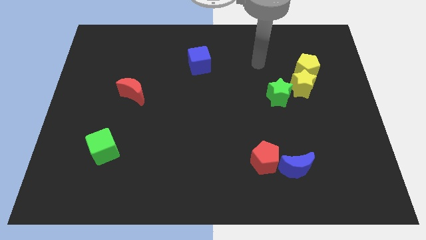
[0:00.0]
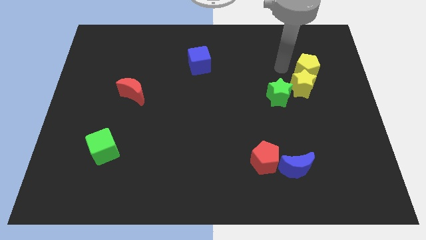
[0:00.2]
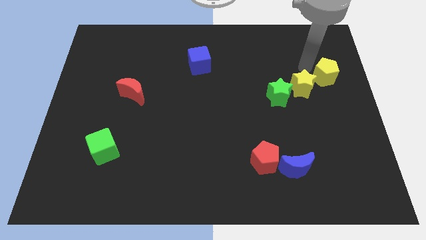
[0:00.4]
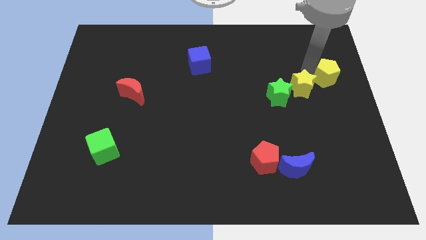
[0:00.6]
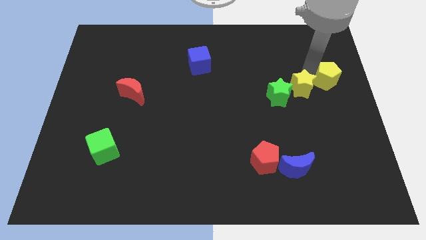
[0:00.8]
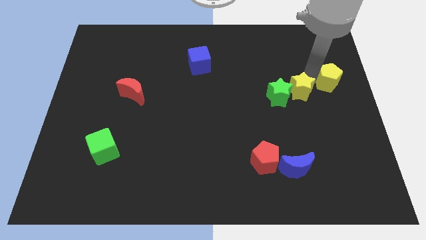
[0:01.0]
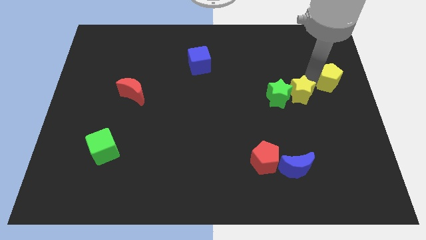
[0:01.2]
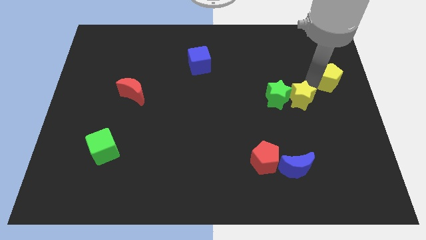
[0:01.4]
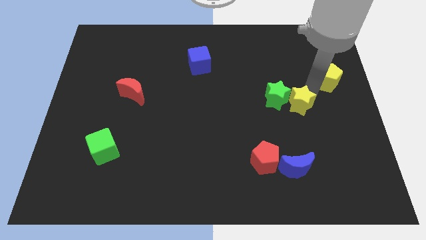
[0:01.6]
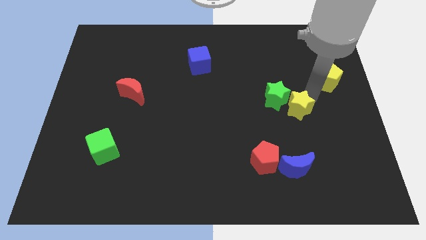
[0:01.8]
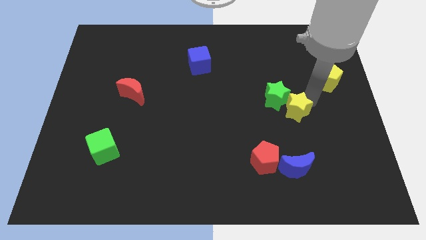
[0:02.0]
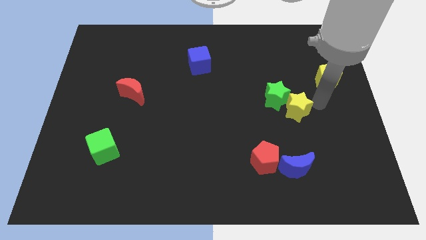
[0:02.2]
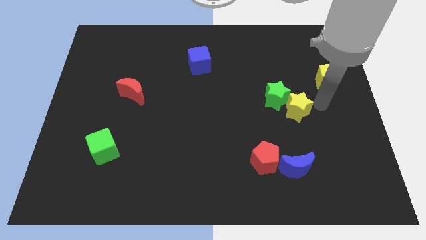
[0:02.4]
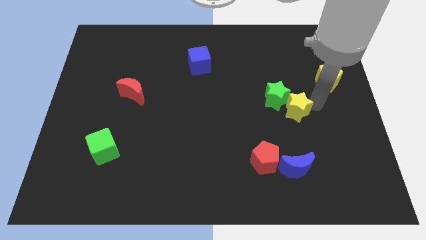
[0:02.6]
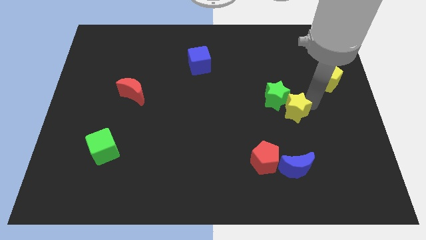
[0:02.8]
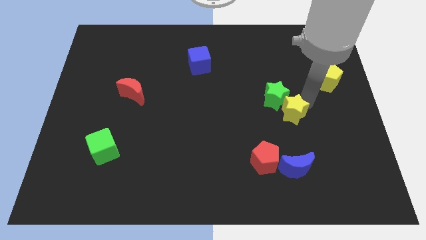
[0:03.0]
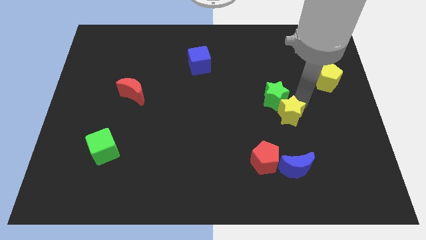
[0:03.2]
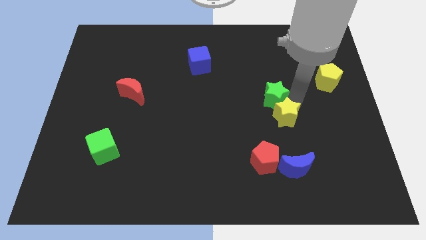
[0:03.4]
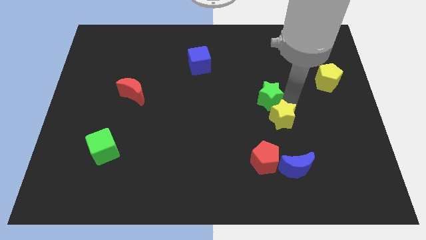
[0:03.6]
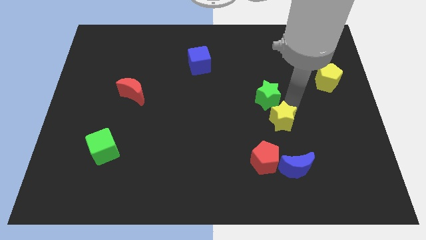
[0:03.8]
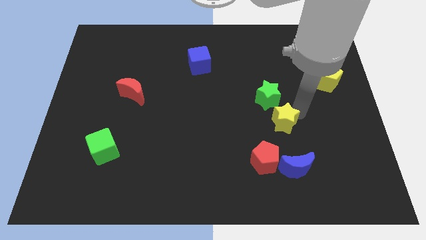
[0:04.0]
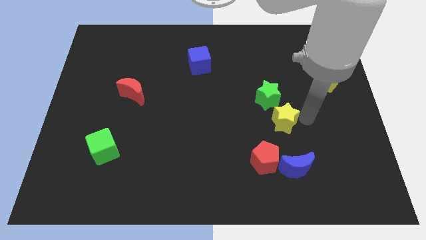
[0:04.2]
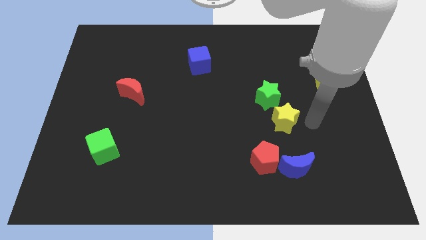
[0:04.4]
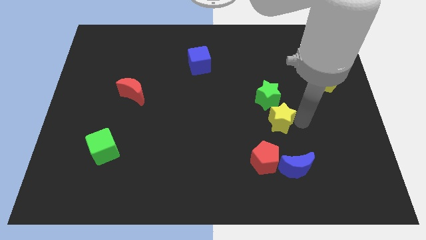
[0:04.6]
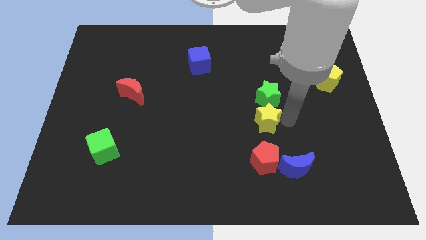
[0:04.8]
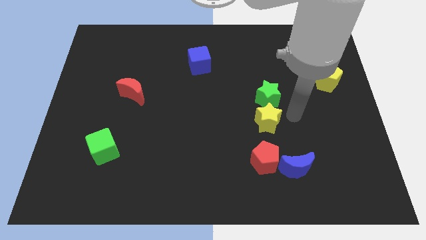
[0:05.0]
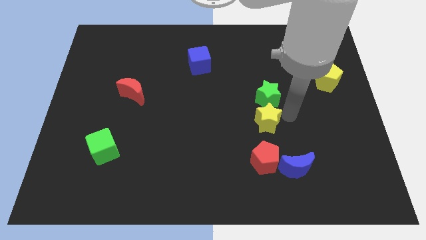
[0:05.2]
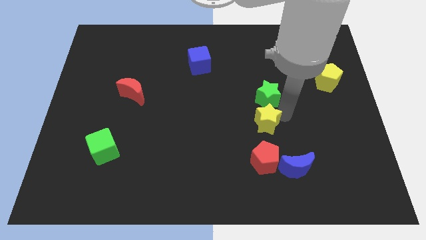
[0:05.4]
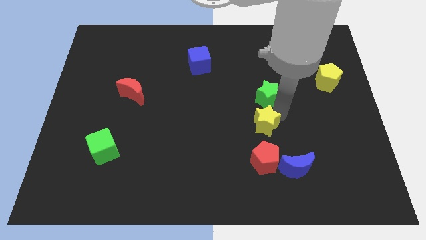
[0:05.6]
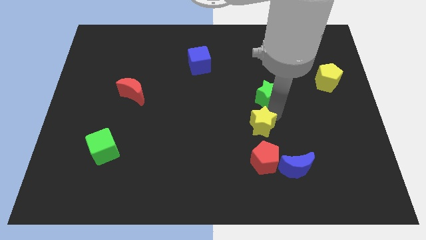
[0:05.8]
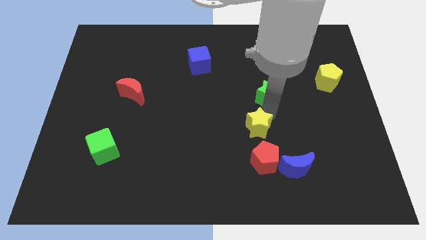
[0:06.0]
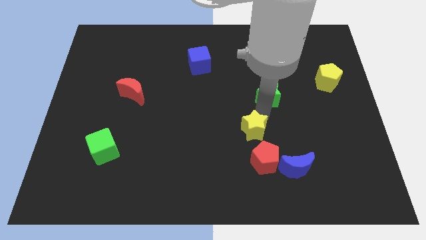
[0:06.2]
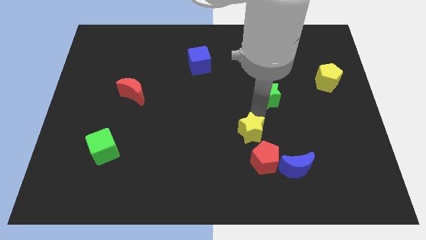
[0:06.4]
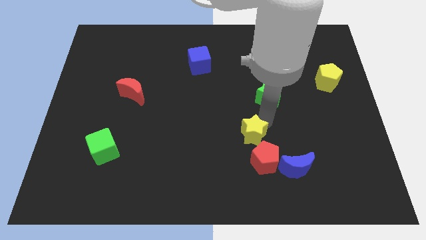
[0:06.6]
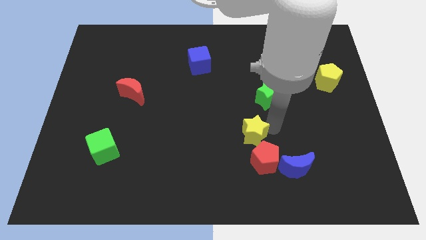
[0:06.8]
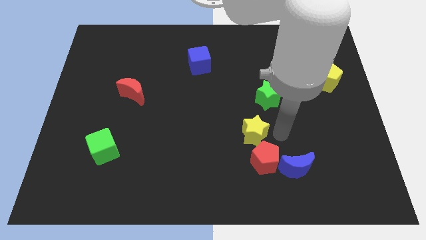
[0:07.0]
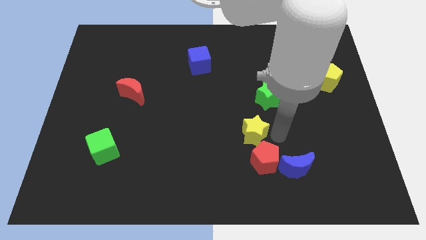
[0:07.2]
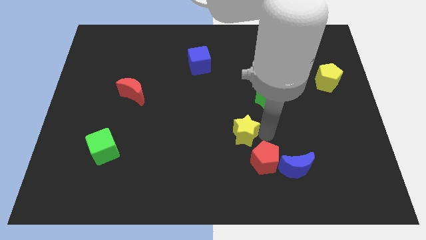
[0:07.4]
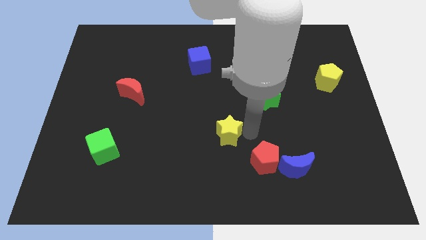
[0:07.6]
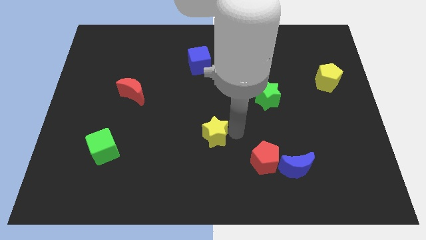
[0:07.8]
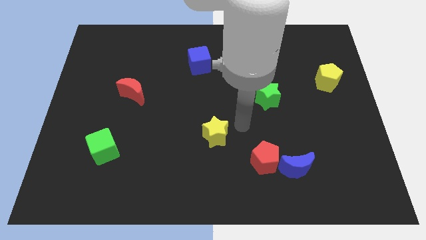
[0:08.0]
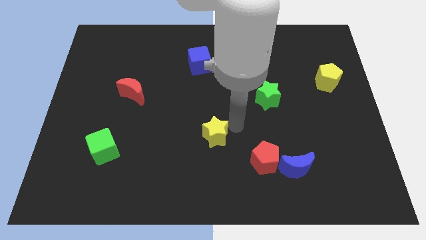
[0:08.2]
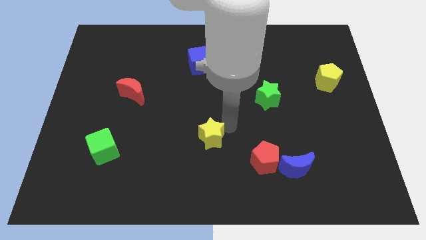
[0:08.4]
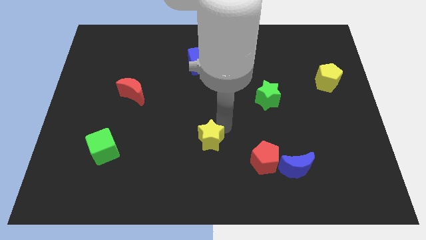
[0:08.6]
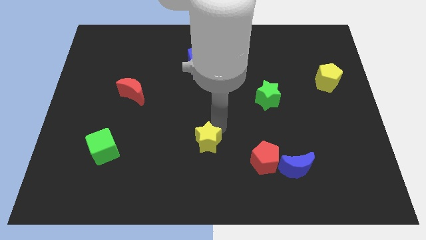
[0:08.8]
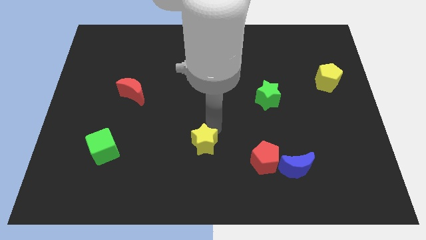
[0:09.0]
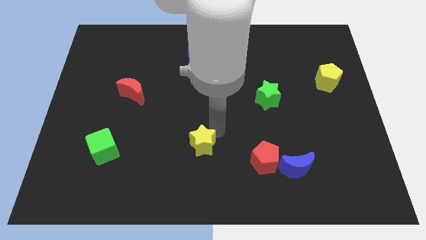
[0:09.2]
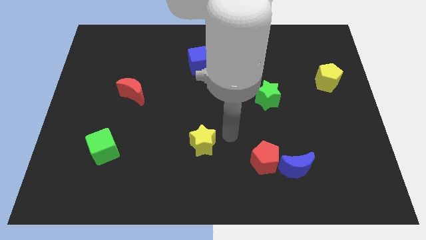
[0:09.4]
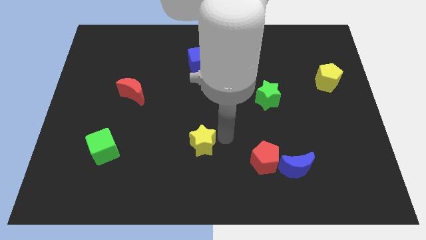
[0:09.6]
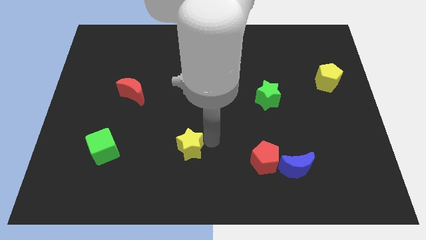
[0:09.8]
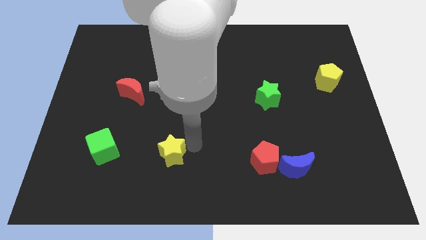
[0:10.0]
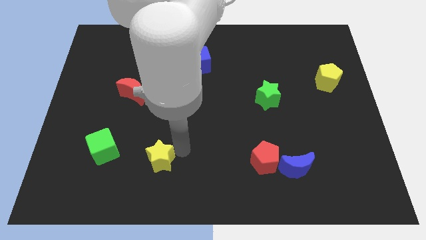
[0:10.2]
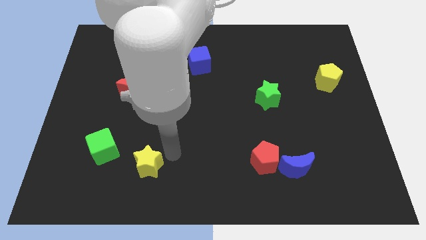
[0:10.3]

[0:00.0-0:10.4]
push the yellow star to the bottom right of the green cube

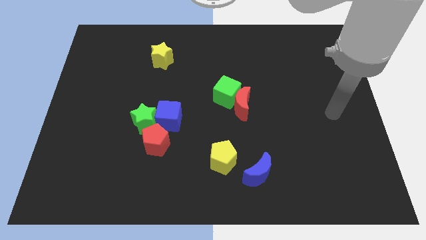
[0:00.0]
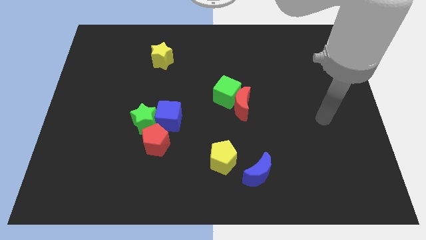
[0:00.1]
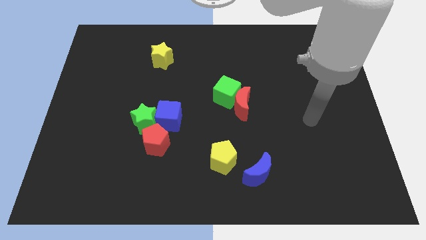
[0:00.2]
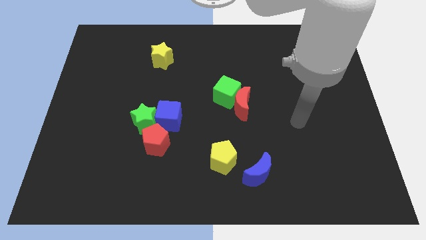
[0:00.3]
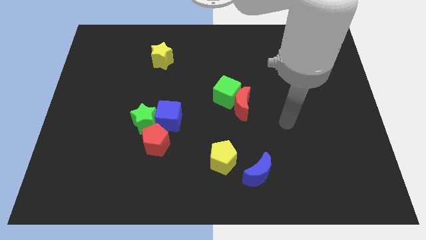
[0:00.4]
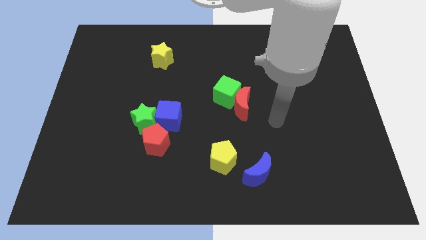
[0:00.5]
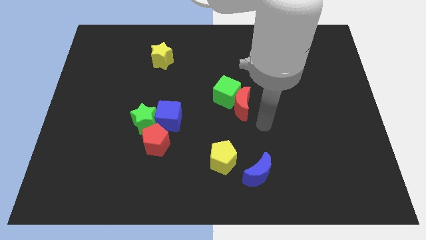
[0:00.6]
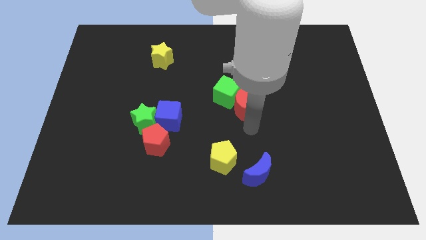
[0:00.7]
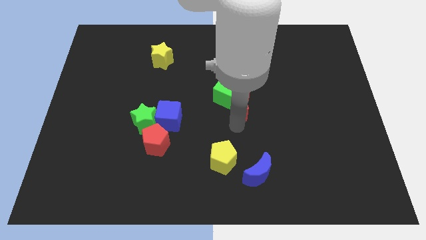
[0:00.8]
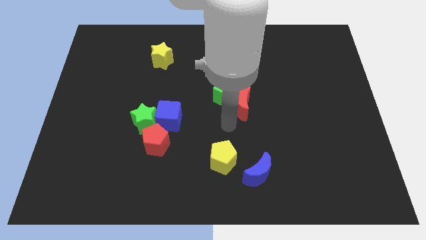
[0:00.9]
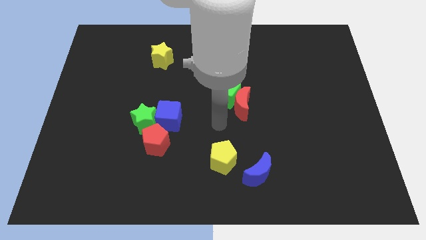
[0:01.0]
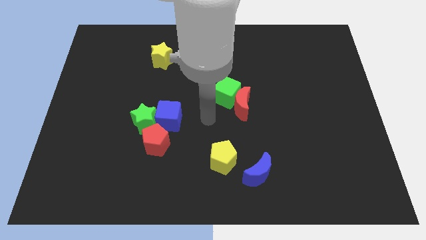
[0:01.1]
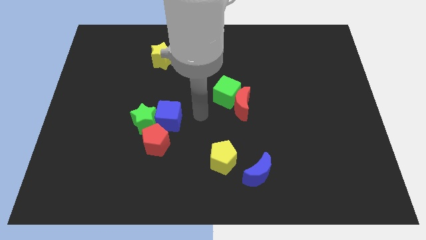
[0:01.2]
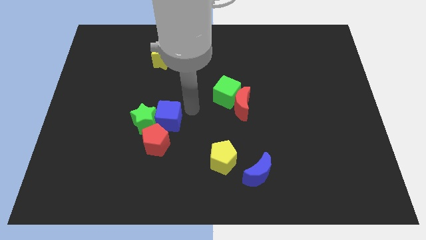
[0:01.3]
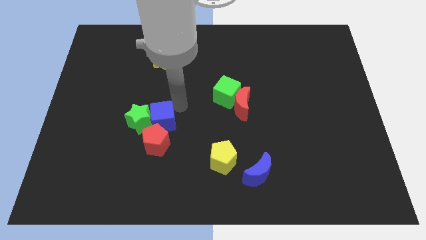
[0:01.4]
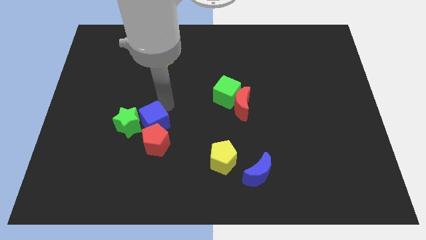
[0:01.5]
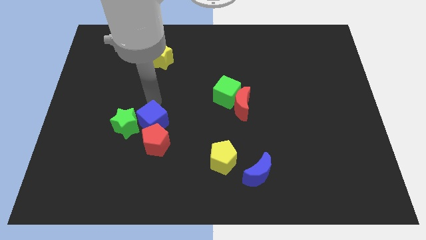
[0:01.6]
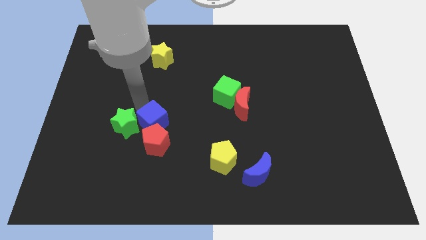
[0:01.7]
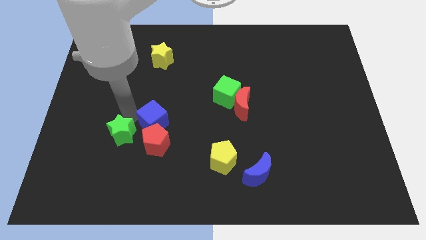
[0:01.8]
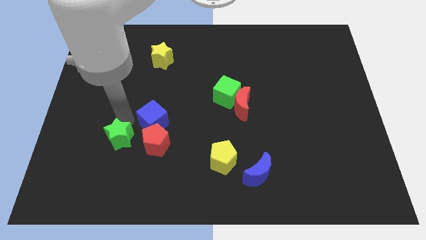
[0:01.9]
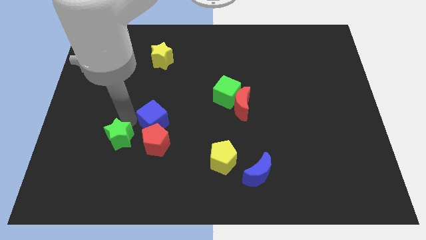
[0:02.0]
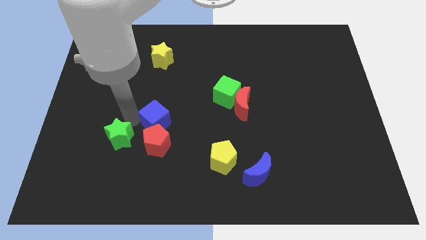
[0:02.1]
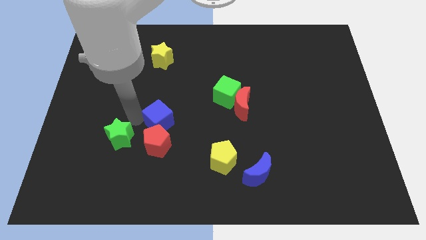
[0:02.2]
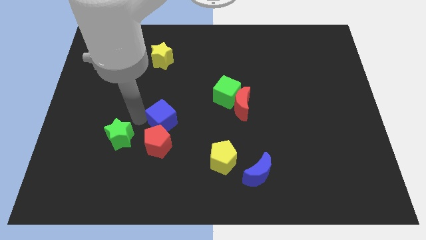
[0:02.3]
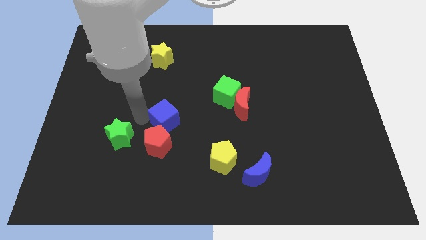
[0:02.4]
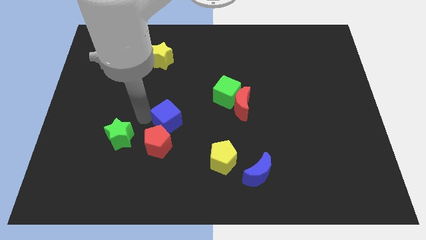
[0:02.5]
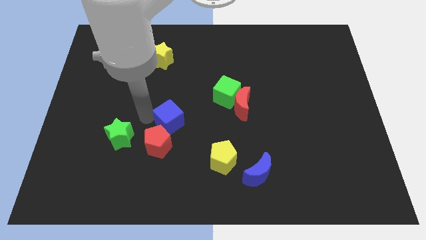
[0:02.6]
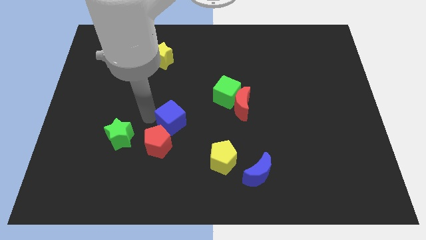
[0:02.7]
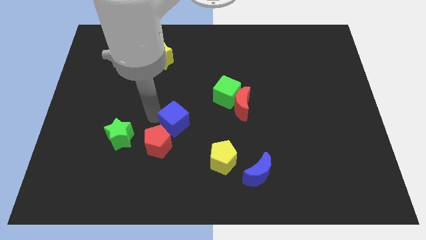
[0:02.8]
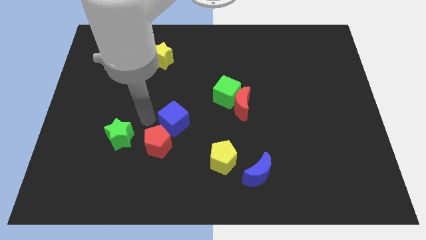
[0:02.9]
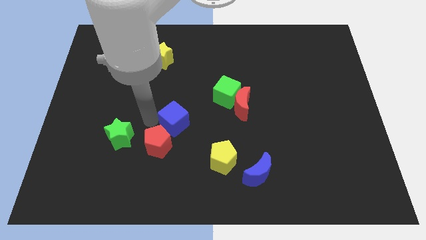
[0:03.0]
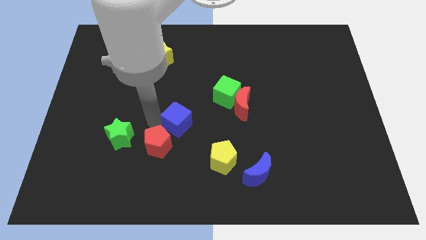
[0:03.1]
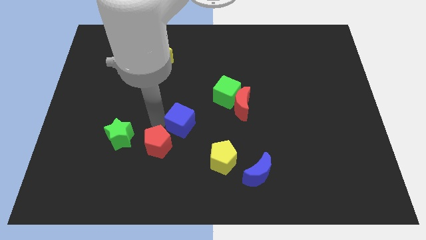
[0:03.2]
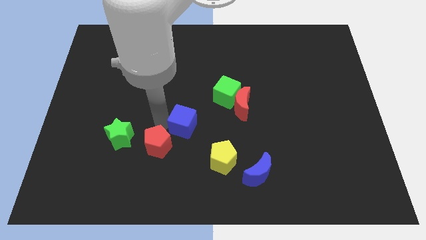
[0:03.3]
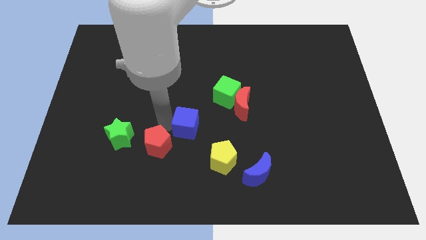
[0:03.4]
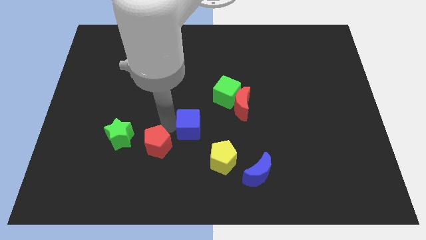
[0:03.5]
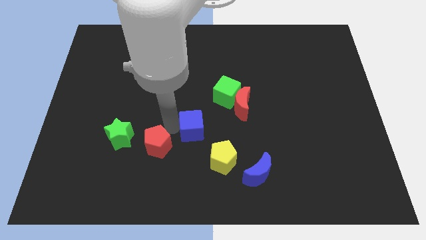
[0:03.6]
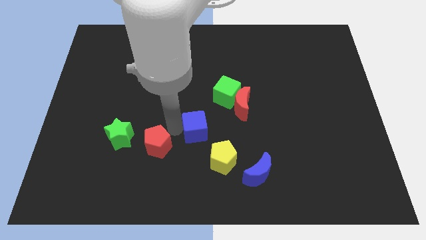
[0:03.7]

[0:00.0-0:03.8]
slide the blue cube to the bottom left of the red moon
